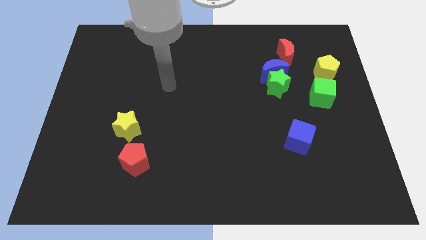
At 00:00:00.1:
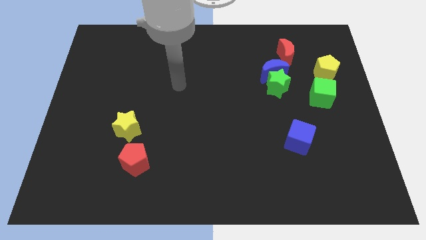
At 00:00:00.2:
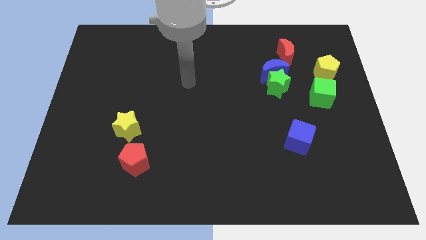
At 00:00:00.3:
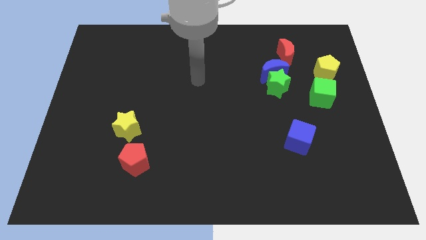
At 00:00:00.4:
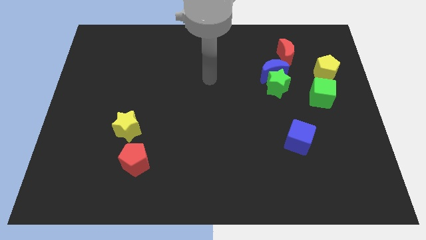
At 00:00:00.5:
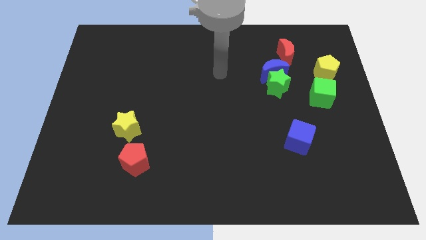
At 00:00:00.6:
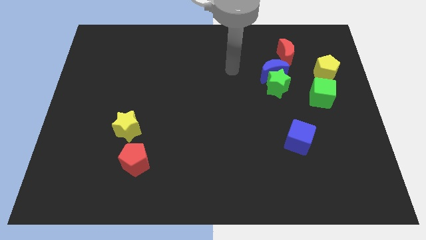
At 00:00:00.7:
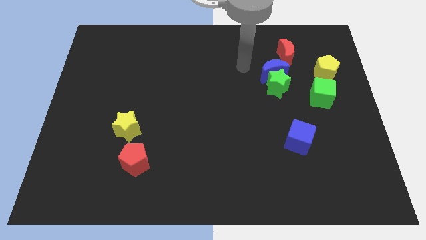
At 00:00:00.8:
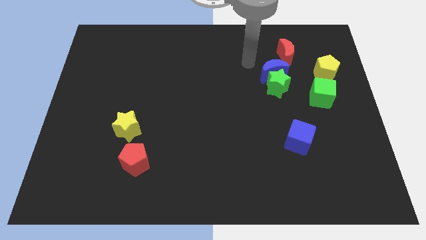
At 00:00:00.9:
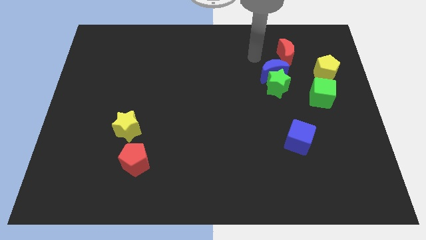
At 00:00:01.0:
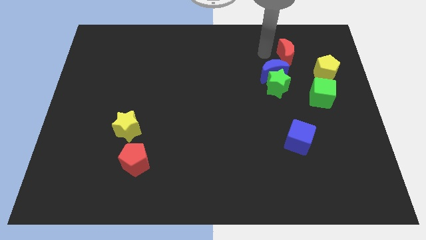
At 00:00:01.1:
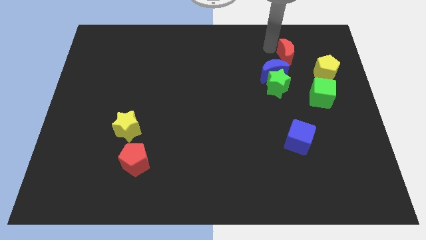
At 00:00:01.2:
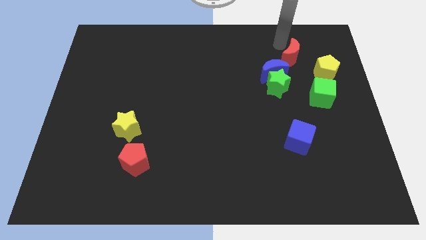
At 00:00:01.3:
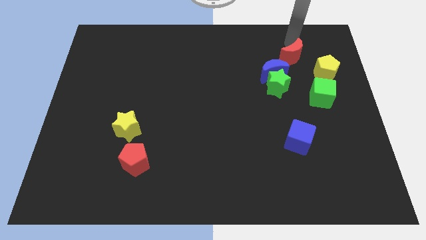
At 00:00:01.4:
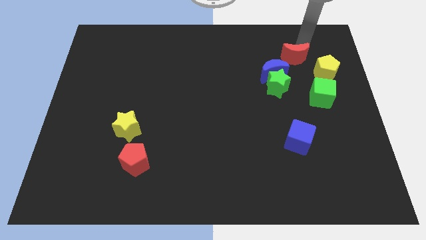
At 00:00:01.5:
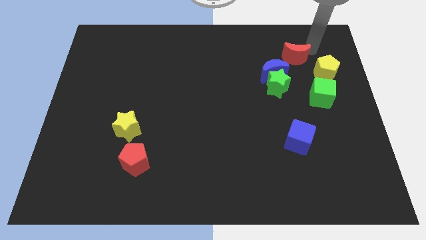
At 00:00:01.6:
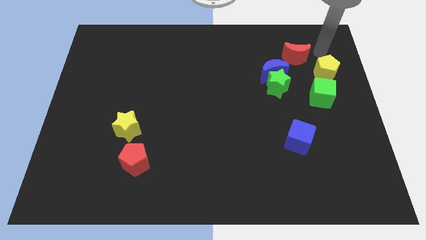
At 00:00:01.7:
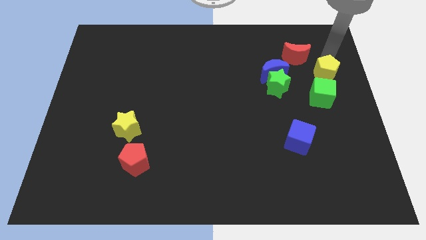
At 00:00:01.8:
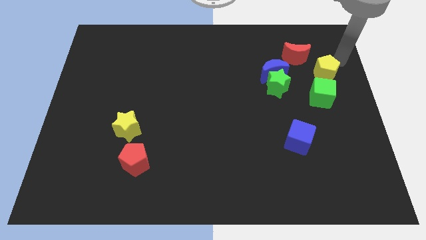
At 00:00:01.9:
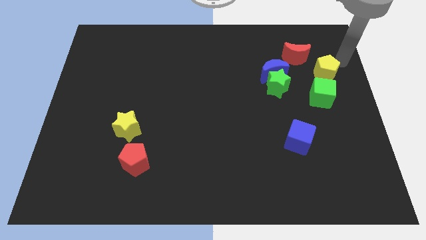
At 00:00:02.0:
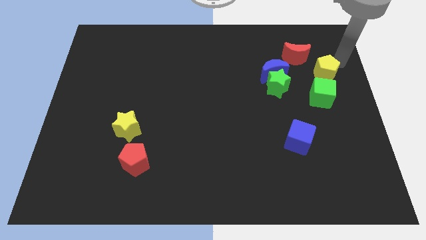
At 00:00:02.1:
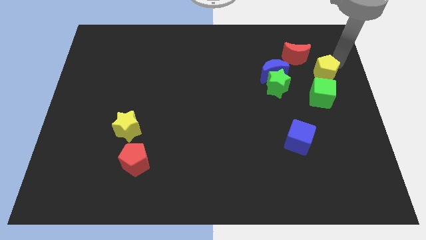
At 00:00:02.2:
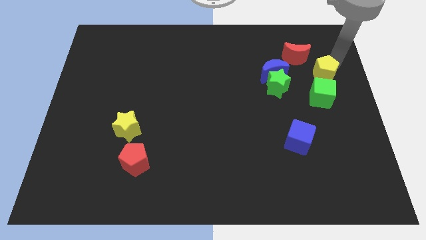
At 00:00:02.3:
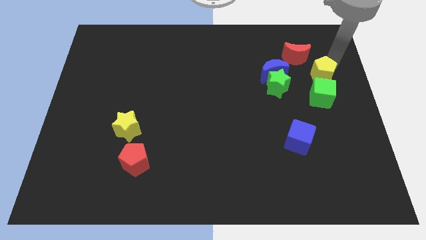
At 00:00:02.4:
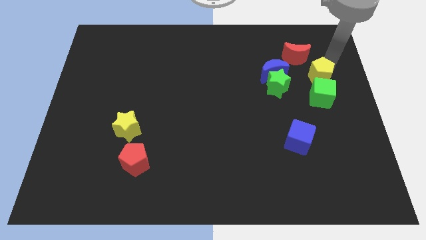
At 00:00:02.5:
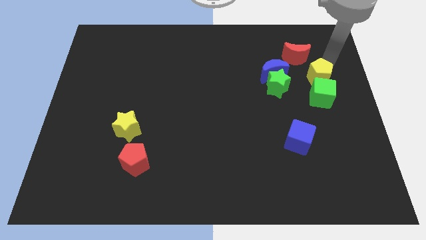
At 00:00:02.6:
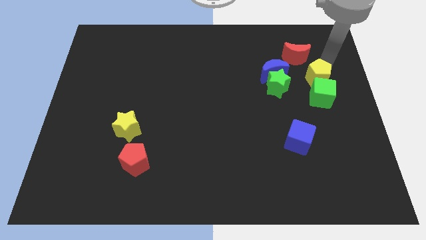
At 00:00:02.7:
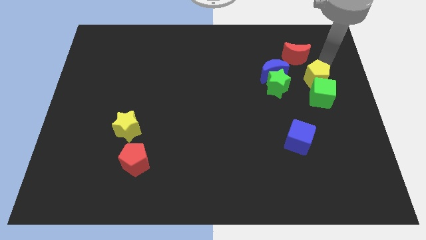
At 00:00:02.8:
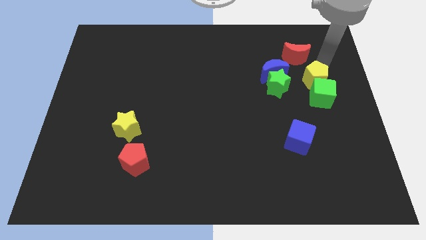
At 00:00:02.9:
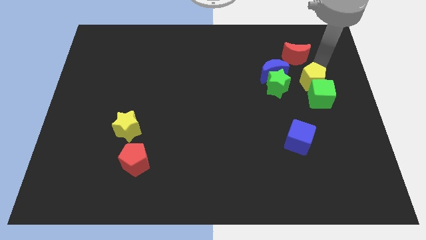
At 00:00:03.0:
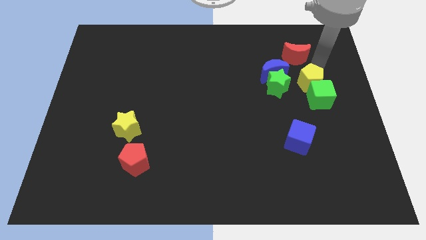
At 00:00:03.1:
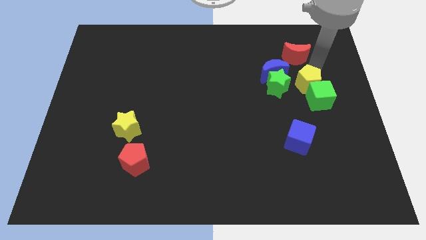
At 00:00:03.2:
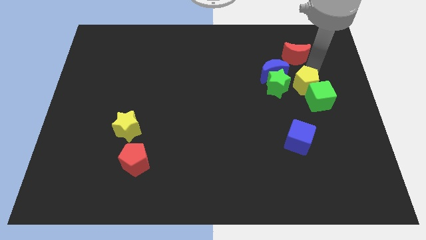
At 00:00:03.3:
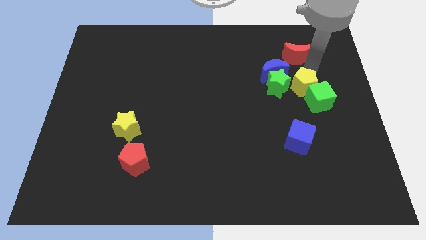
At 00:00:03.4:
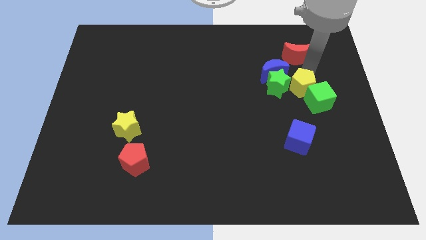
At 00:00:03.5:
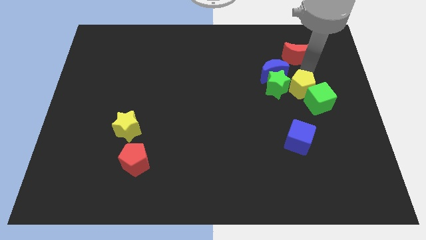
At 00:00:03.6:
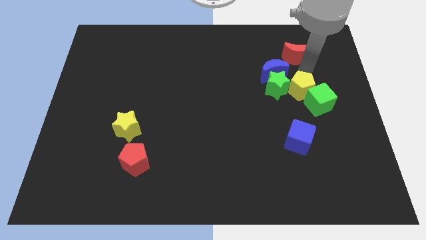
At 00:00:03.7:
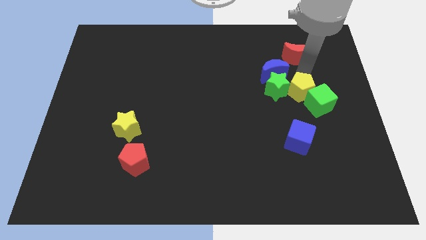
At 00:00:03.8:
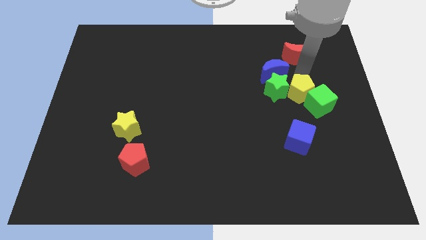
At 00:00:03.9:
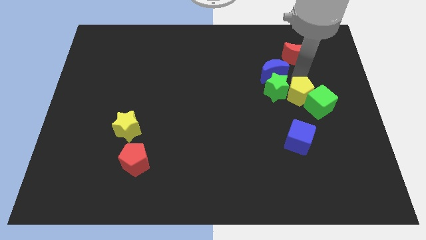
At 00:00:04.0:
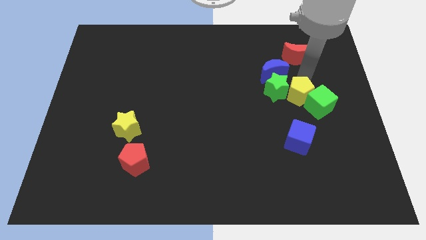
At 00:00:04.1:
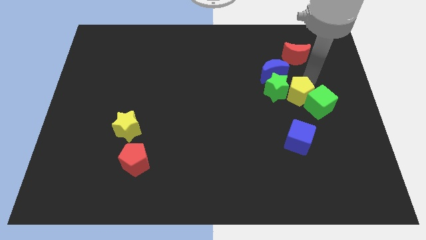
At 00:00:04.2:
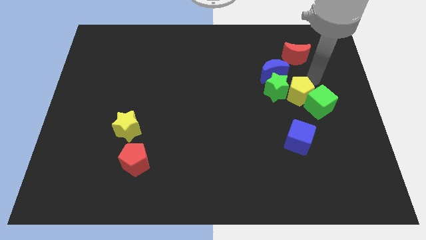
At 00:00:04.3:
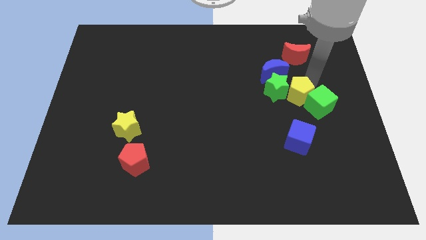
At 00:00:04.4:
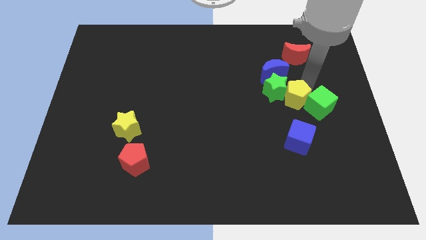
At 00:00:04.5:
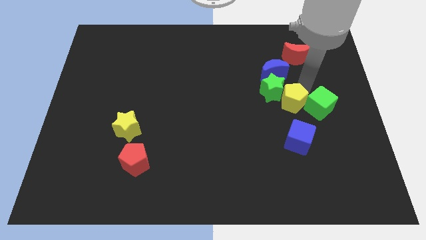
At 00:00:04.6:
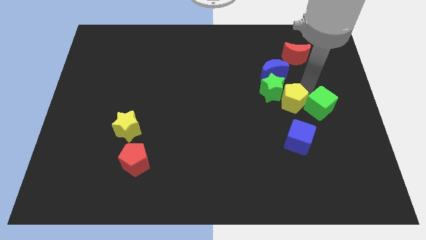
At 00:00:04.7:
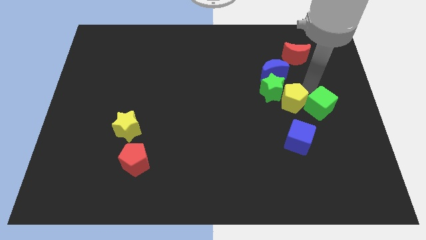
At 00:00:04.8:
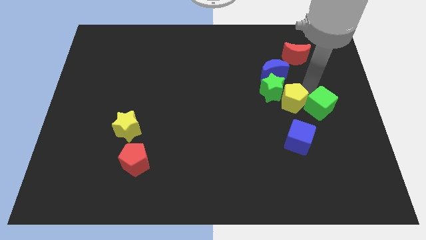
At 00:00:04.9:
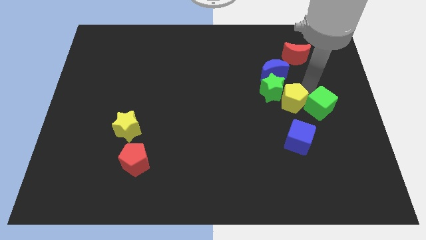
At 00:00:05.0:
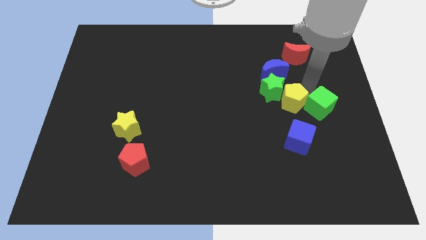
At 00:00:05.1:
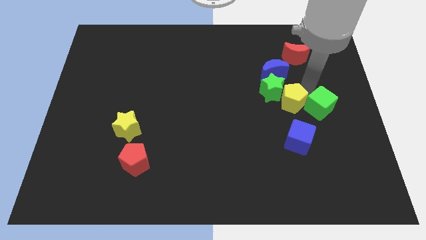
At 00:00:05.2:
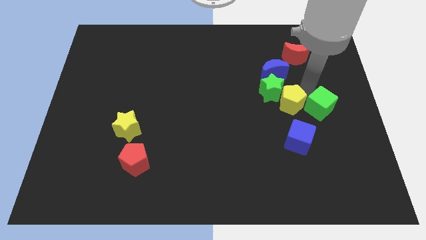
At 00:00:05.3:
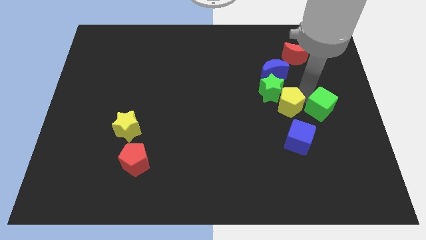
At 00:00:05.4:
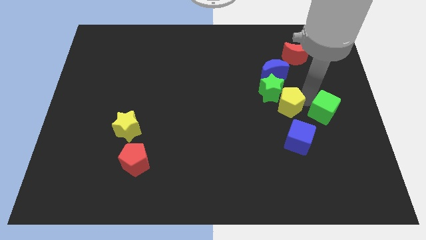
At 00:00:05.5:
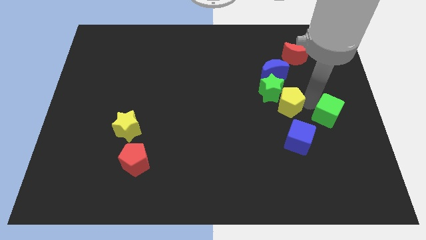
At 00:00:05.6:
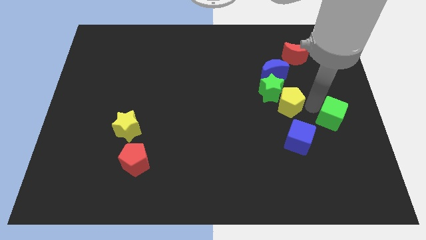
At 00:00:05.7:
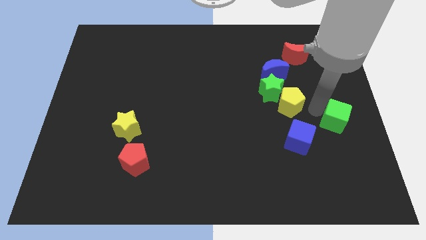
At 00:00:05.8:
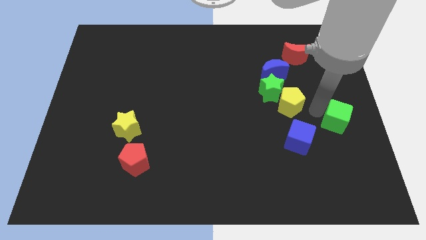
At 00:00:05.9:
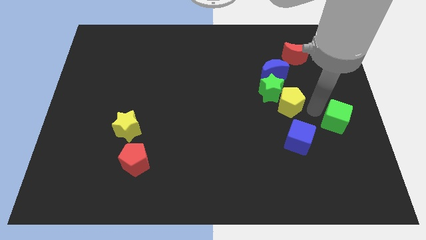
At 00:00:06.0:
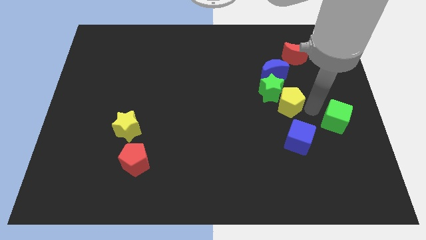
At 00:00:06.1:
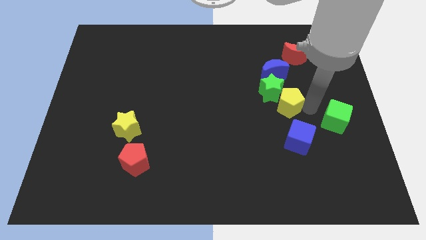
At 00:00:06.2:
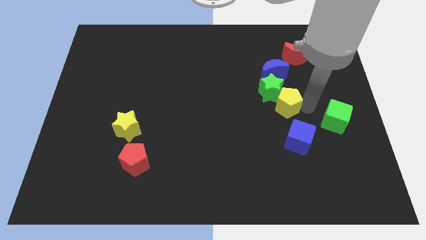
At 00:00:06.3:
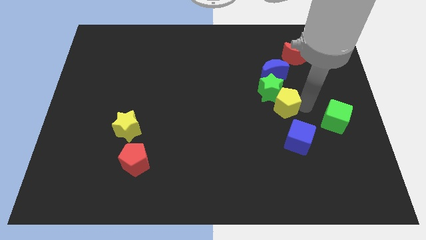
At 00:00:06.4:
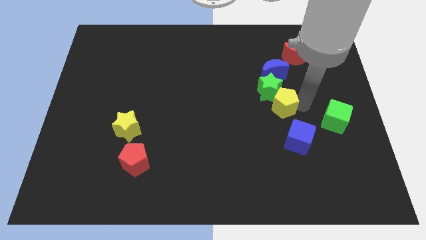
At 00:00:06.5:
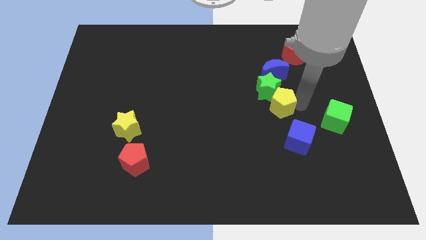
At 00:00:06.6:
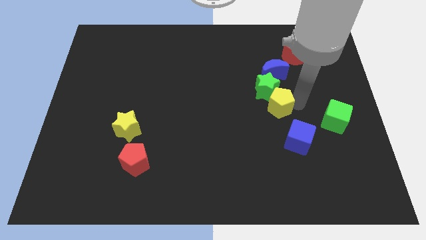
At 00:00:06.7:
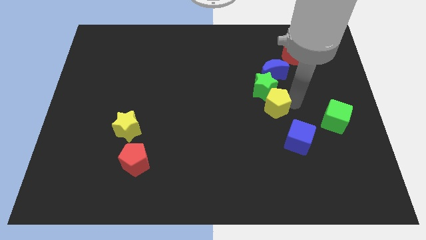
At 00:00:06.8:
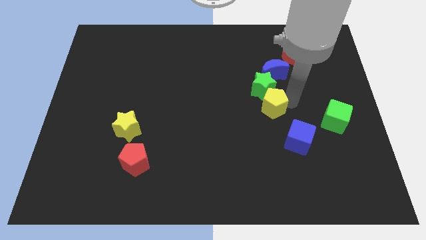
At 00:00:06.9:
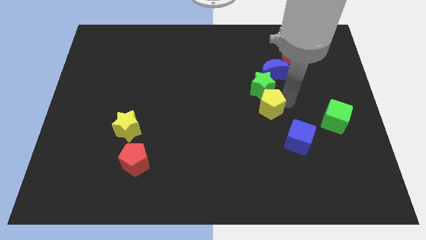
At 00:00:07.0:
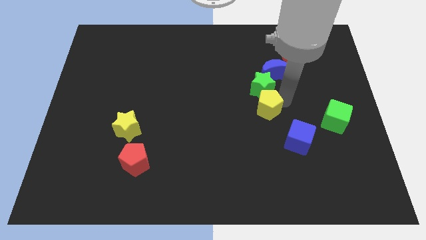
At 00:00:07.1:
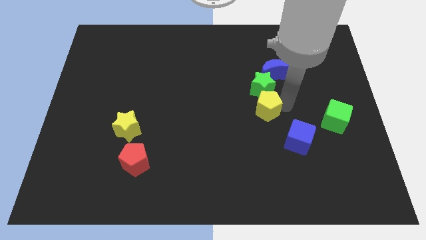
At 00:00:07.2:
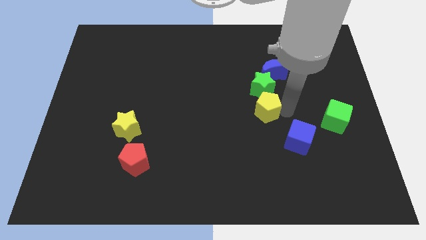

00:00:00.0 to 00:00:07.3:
move the yellow pentagon to the center
